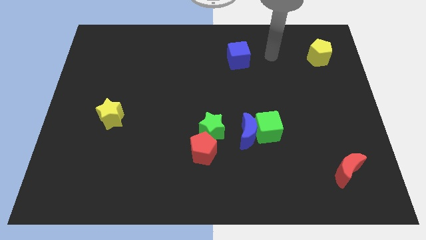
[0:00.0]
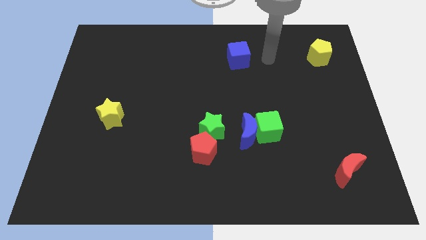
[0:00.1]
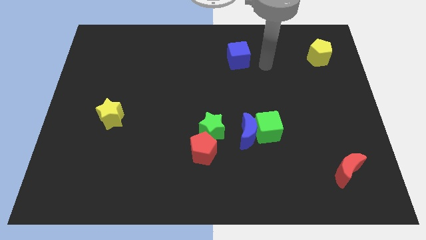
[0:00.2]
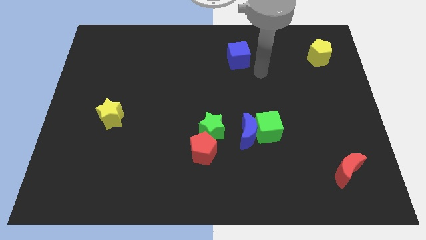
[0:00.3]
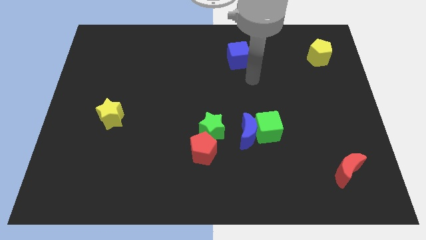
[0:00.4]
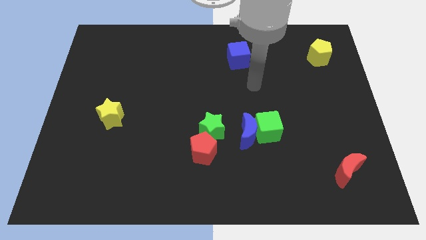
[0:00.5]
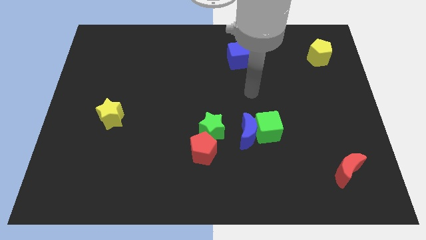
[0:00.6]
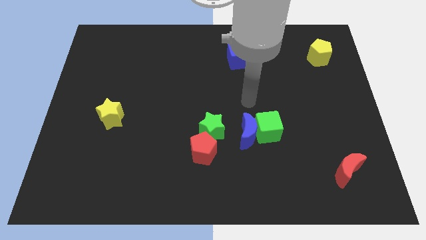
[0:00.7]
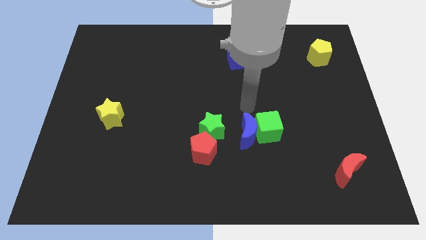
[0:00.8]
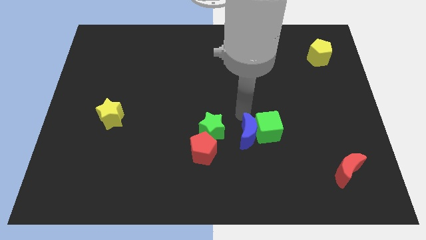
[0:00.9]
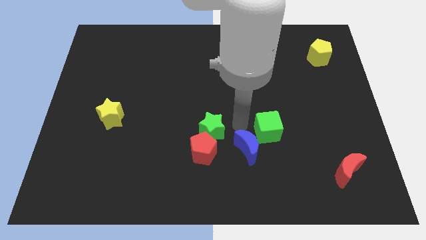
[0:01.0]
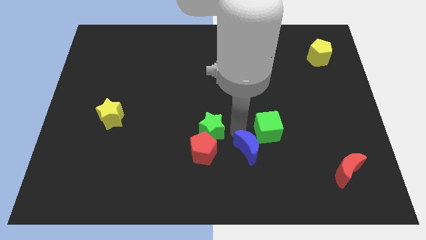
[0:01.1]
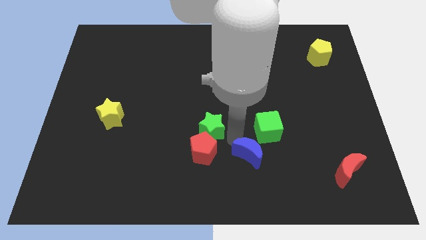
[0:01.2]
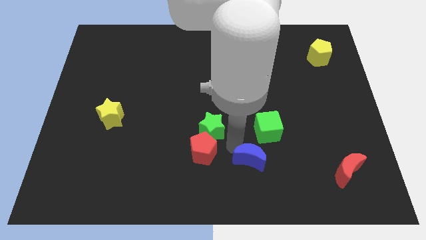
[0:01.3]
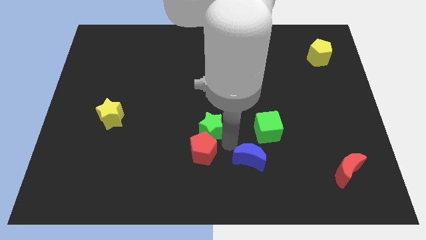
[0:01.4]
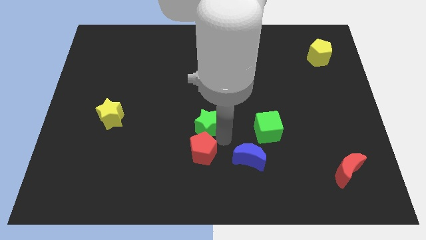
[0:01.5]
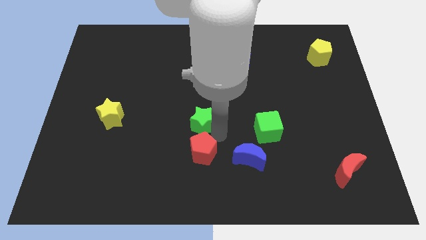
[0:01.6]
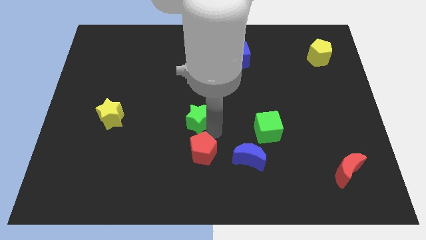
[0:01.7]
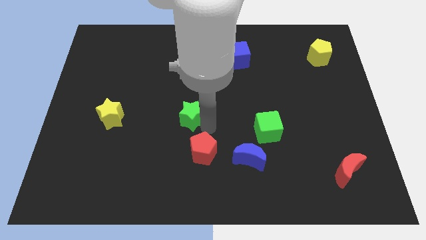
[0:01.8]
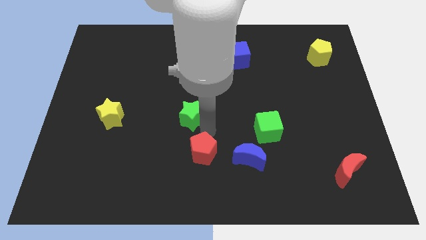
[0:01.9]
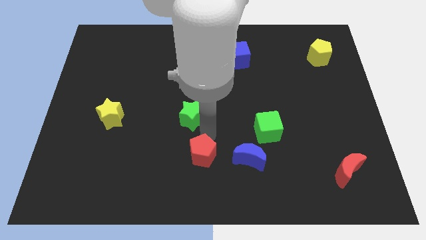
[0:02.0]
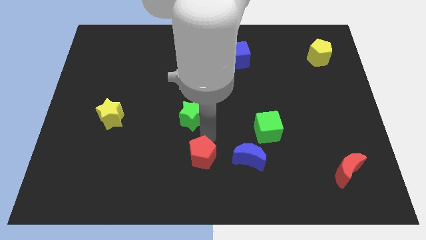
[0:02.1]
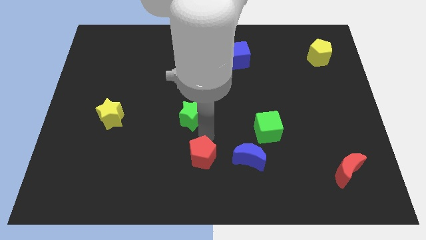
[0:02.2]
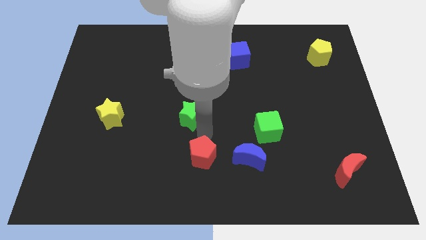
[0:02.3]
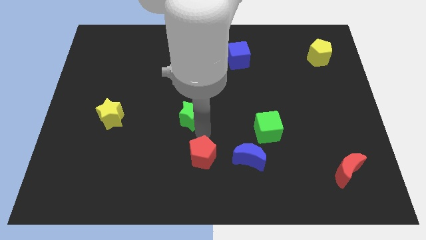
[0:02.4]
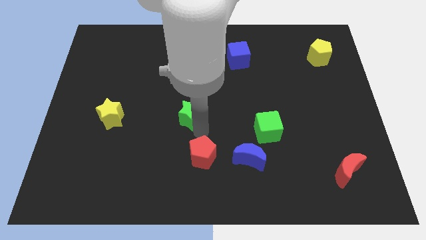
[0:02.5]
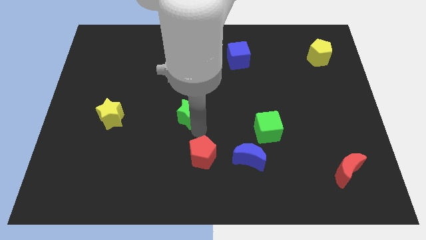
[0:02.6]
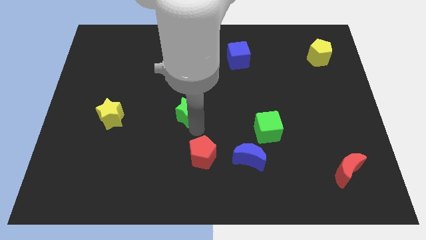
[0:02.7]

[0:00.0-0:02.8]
slide the green star up and left a little

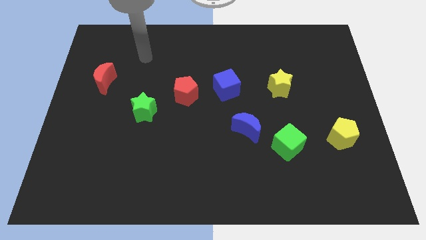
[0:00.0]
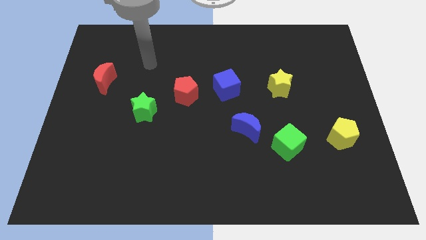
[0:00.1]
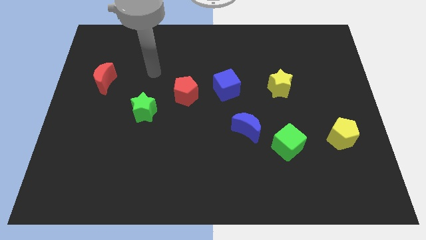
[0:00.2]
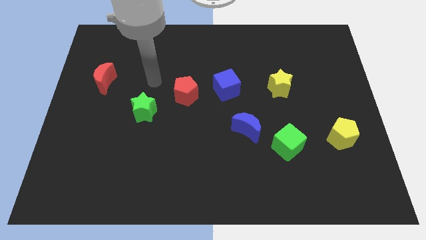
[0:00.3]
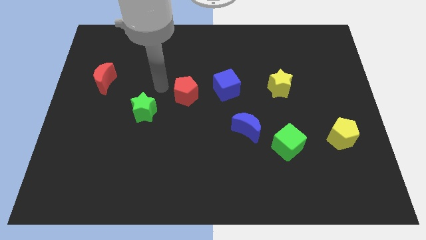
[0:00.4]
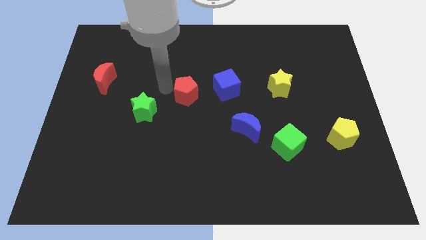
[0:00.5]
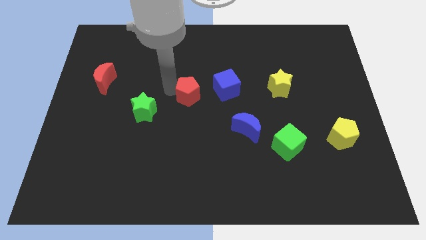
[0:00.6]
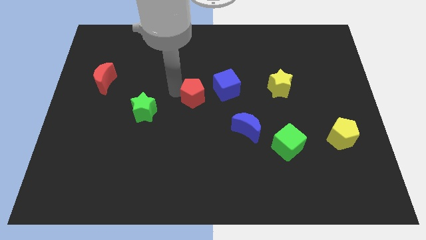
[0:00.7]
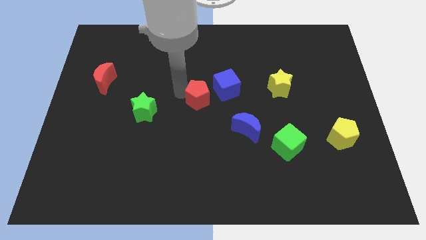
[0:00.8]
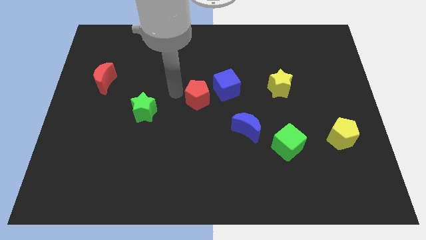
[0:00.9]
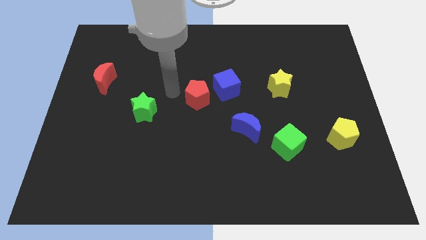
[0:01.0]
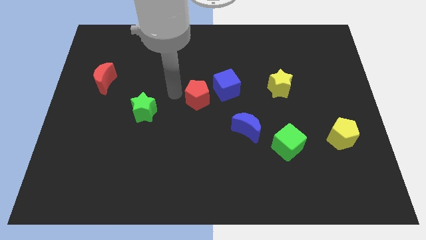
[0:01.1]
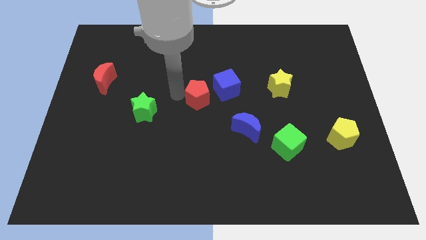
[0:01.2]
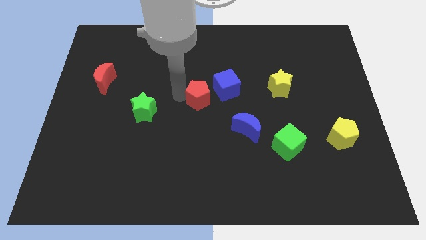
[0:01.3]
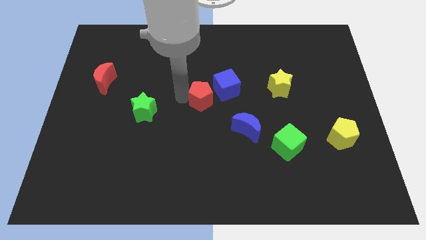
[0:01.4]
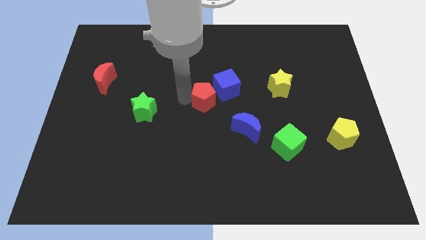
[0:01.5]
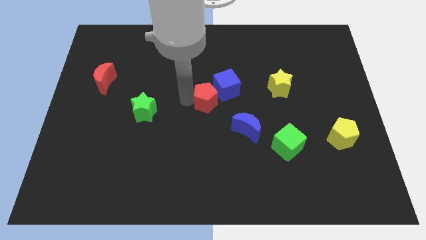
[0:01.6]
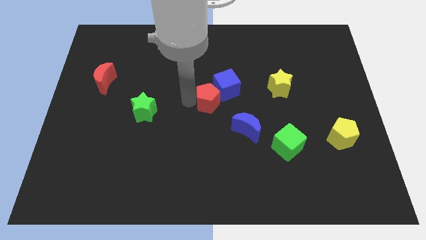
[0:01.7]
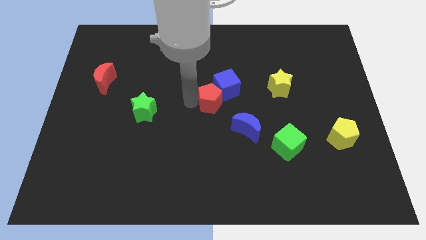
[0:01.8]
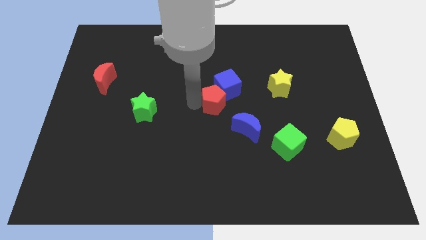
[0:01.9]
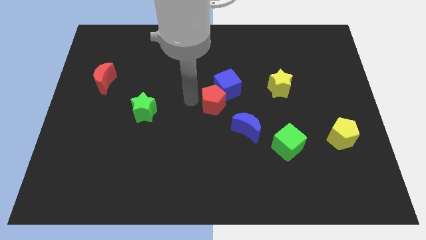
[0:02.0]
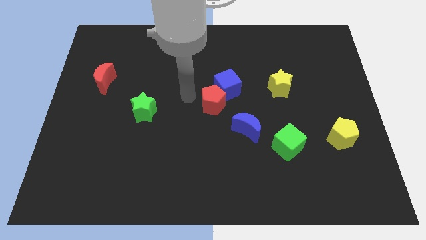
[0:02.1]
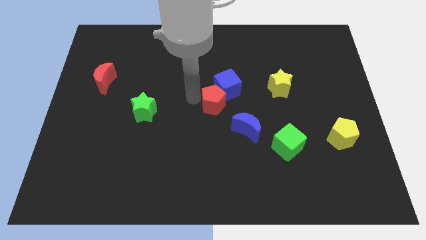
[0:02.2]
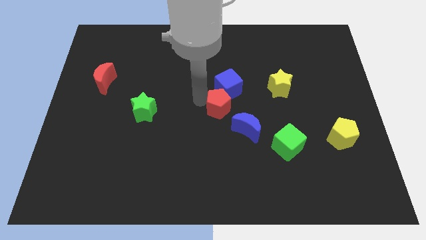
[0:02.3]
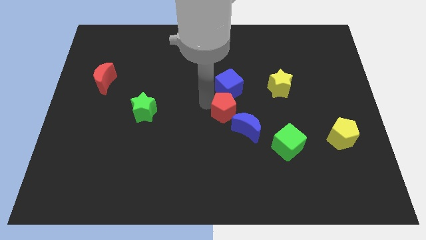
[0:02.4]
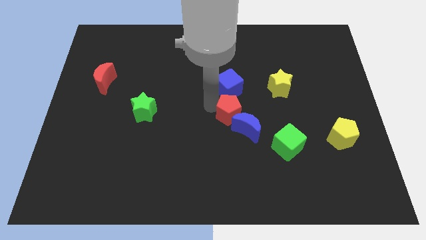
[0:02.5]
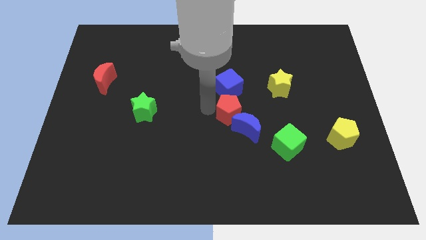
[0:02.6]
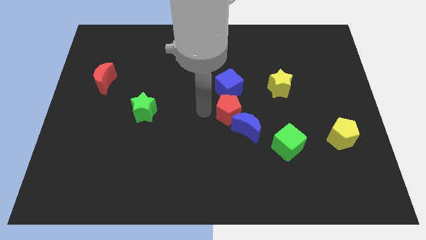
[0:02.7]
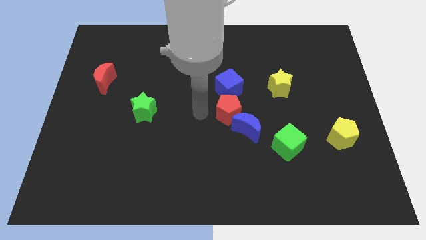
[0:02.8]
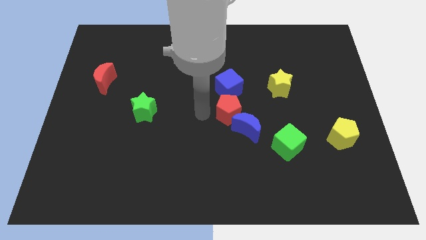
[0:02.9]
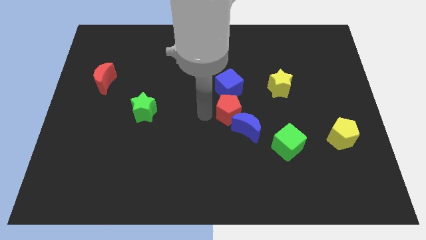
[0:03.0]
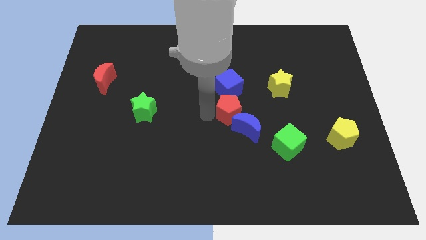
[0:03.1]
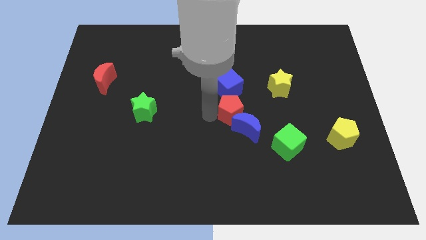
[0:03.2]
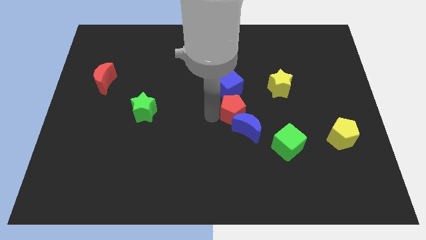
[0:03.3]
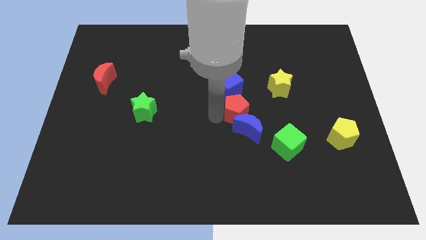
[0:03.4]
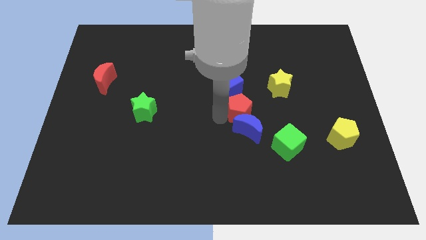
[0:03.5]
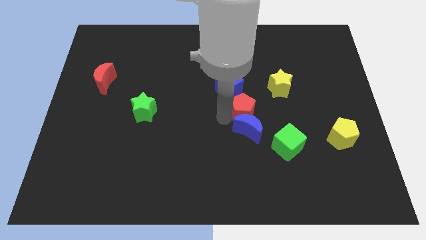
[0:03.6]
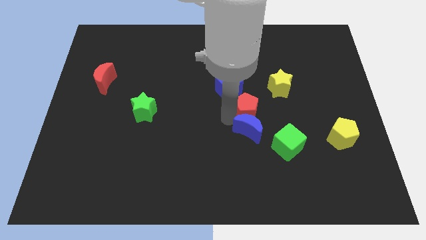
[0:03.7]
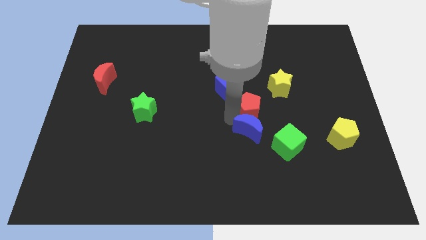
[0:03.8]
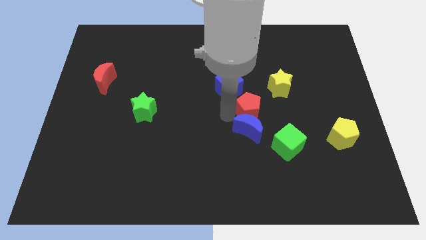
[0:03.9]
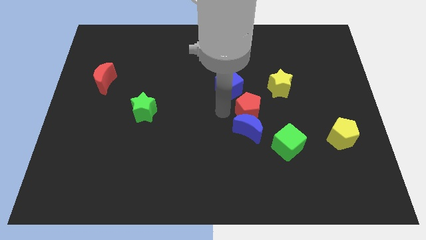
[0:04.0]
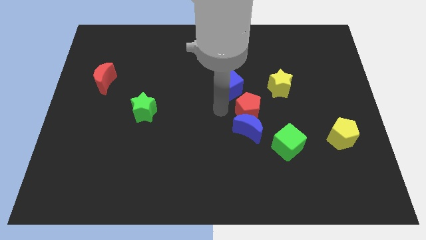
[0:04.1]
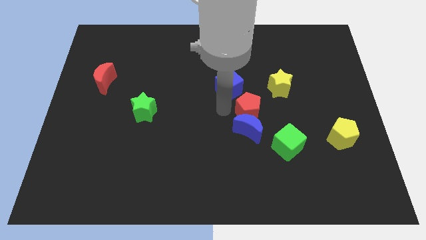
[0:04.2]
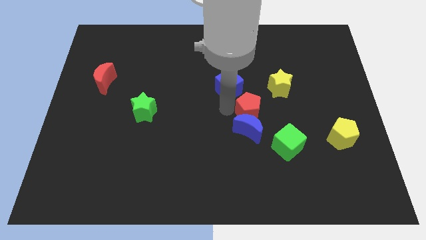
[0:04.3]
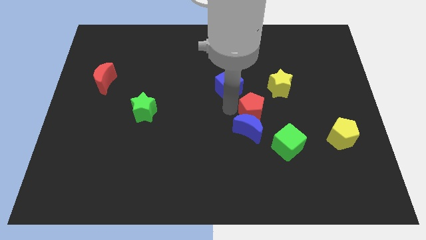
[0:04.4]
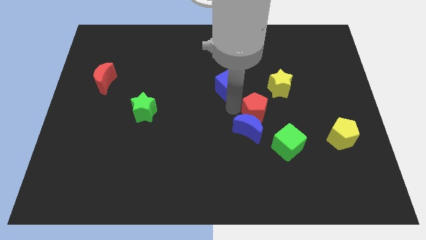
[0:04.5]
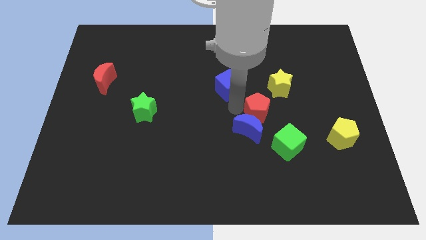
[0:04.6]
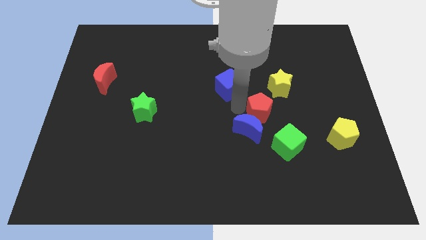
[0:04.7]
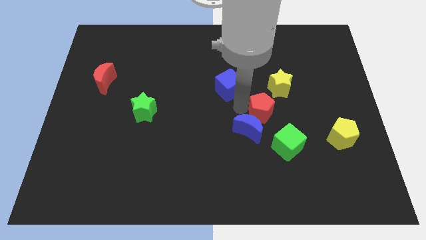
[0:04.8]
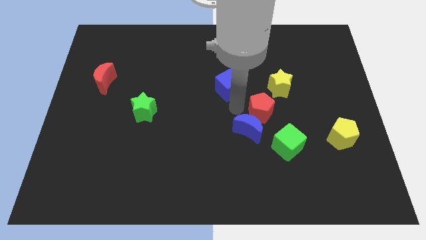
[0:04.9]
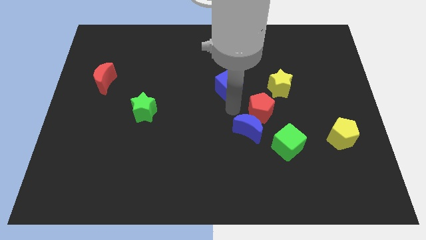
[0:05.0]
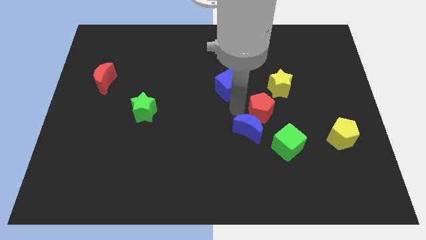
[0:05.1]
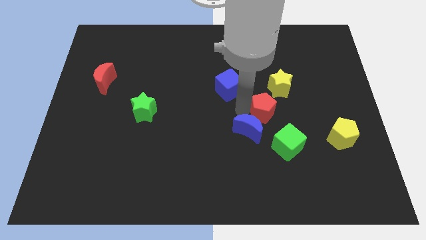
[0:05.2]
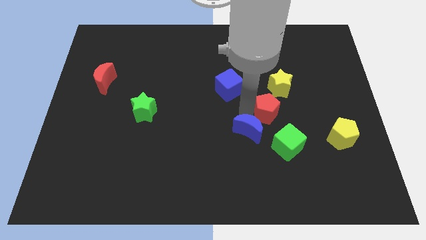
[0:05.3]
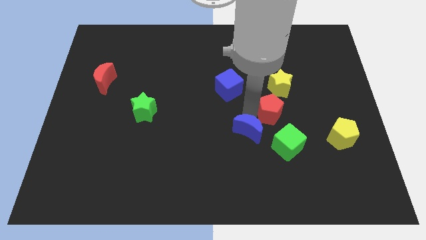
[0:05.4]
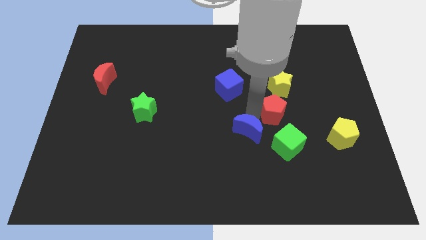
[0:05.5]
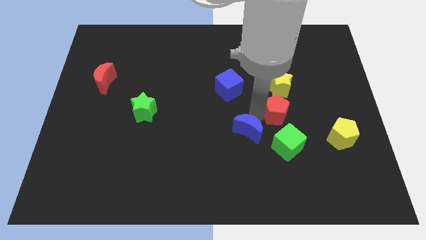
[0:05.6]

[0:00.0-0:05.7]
slide the red pentagon right
